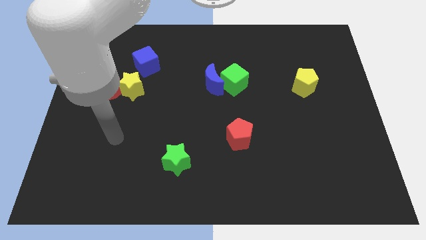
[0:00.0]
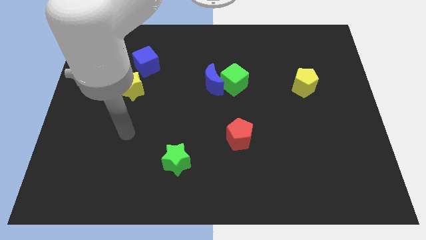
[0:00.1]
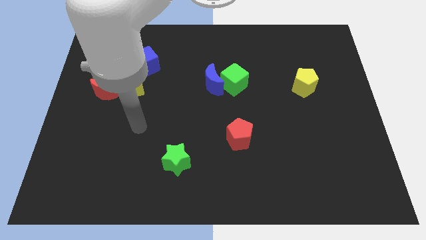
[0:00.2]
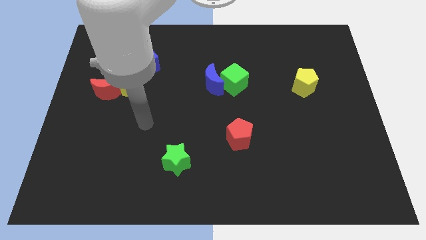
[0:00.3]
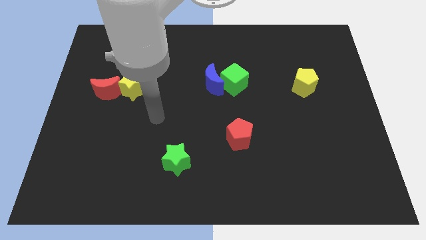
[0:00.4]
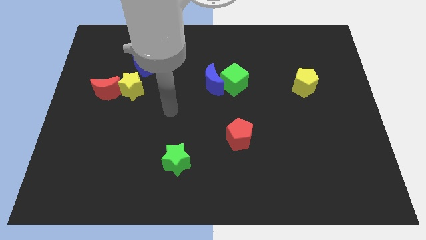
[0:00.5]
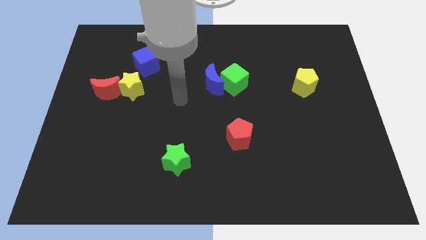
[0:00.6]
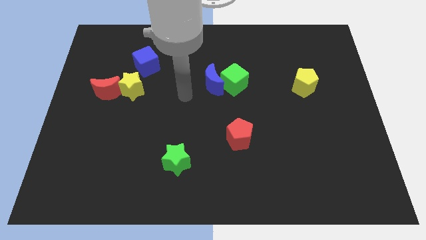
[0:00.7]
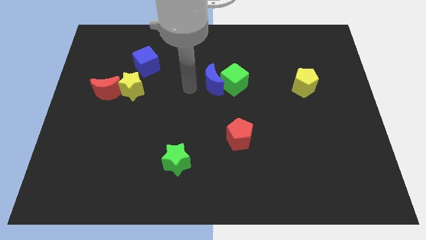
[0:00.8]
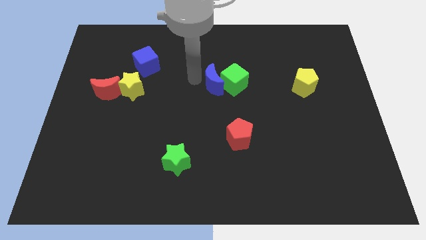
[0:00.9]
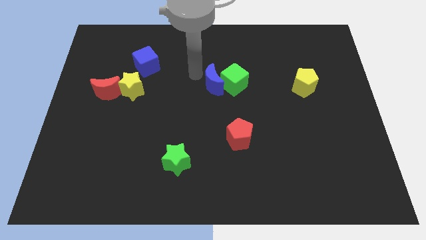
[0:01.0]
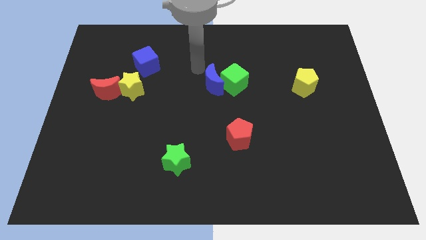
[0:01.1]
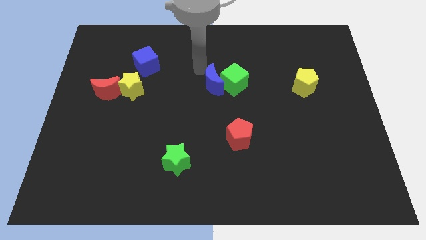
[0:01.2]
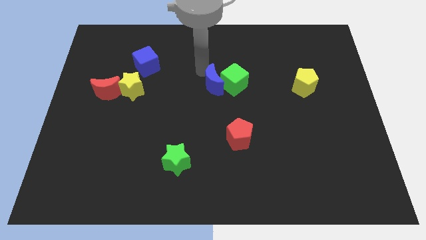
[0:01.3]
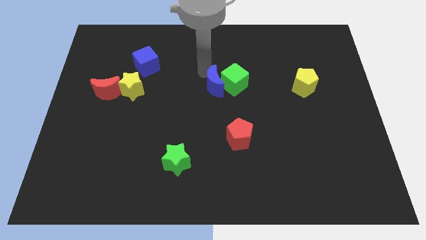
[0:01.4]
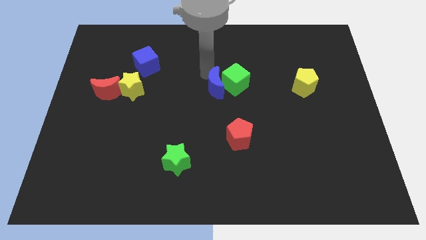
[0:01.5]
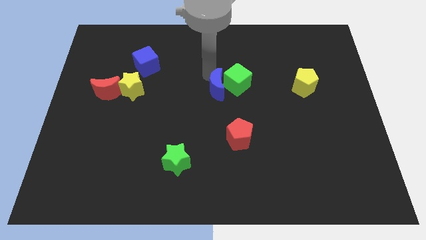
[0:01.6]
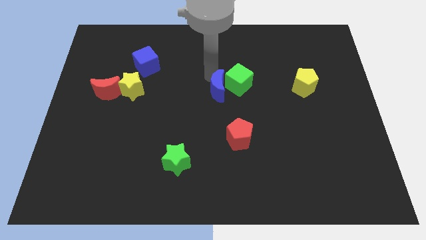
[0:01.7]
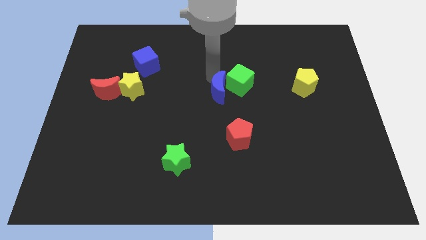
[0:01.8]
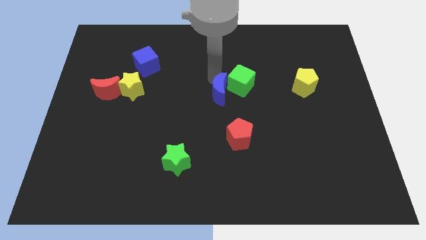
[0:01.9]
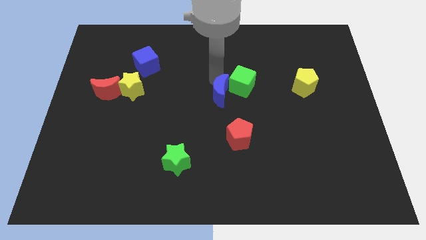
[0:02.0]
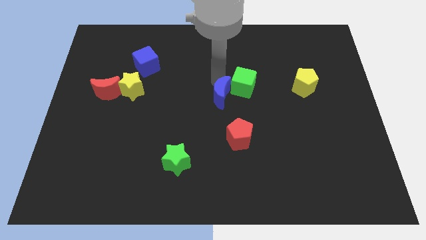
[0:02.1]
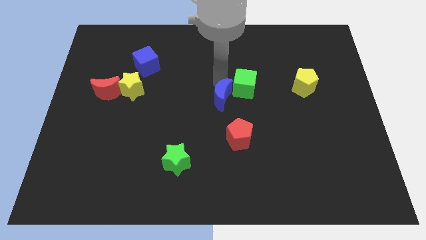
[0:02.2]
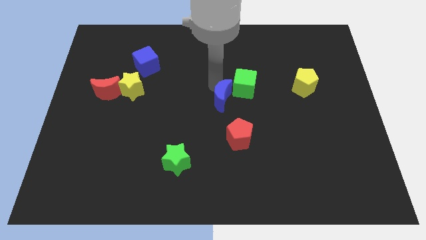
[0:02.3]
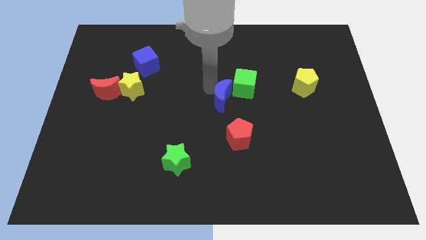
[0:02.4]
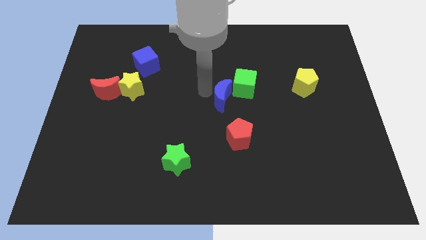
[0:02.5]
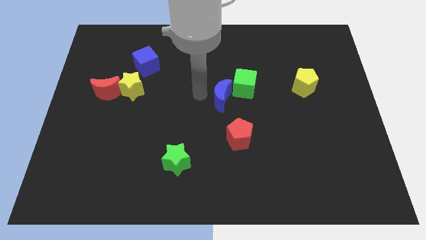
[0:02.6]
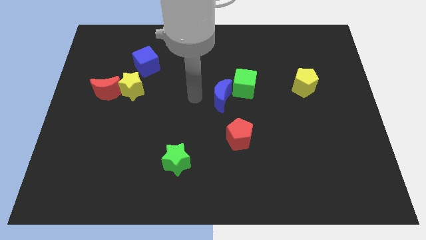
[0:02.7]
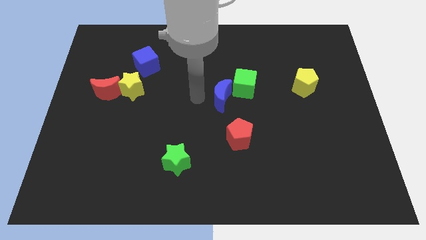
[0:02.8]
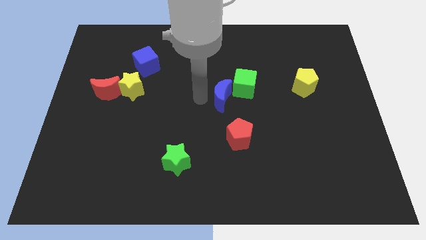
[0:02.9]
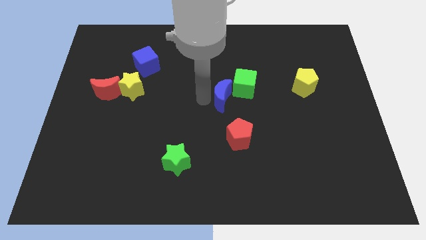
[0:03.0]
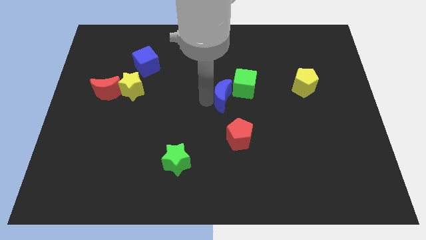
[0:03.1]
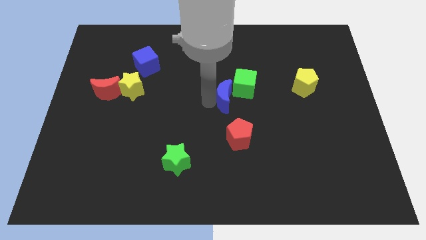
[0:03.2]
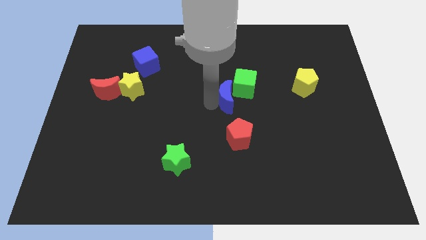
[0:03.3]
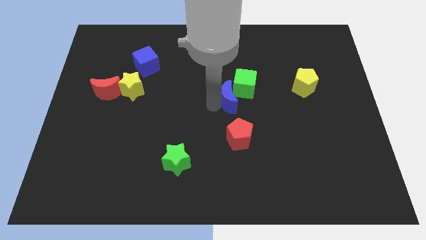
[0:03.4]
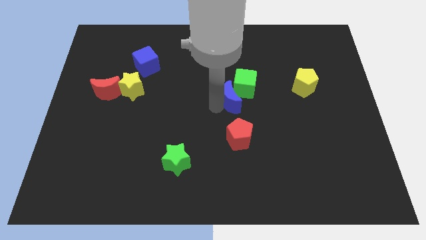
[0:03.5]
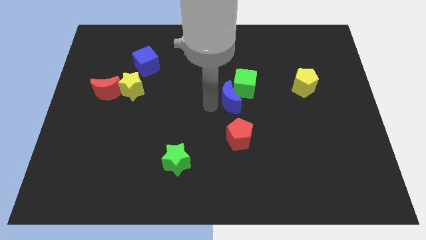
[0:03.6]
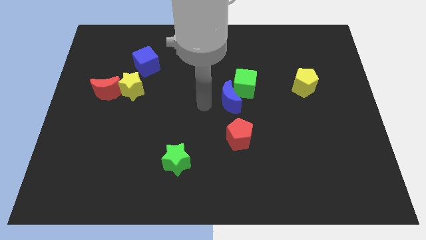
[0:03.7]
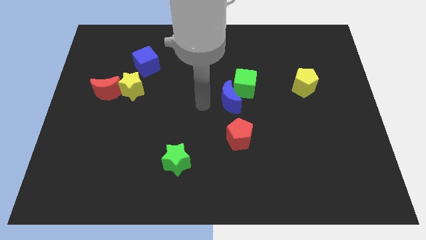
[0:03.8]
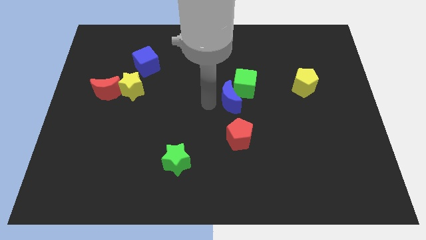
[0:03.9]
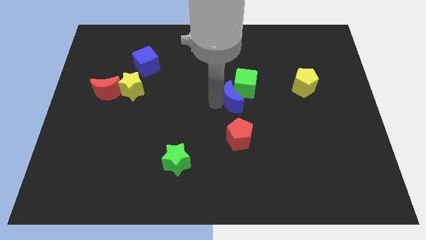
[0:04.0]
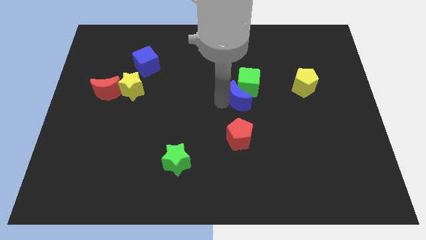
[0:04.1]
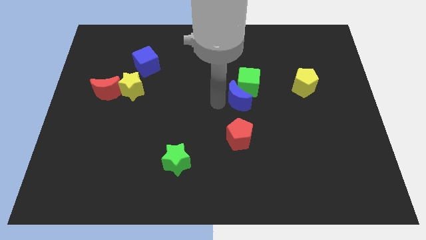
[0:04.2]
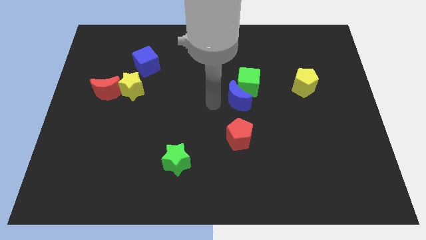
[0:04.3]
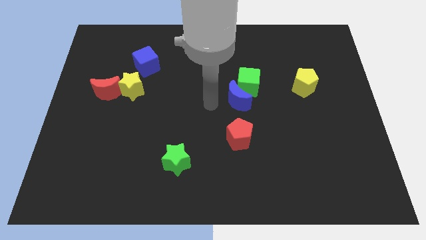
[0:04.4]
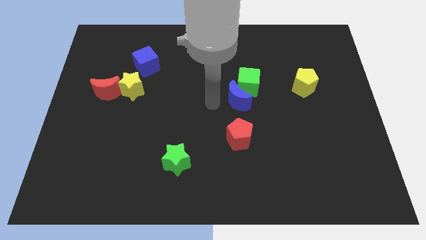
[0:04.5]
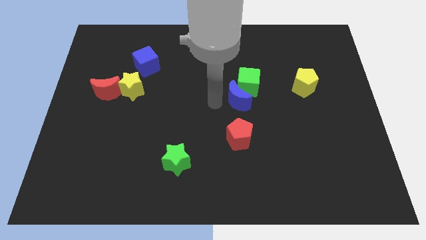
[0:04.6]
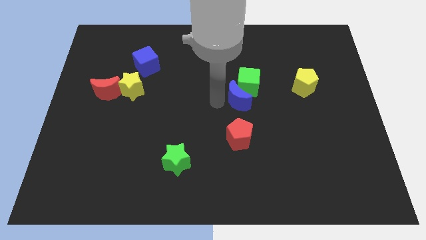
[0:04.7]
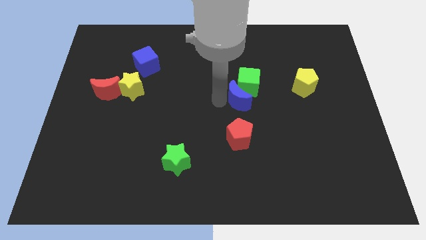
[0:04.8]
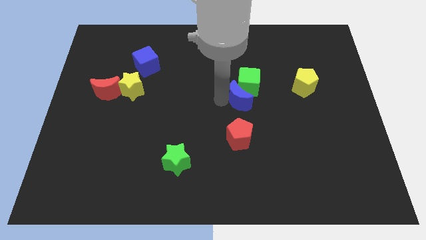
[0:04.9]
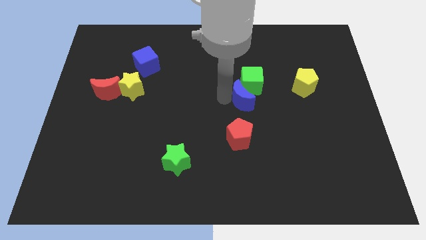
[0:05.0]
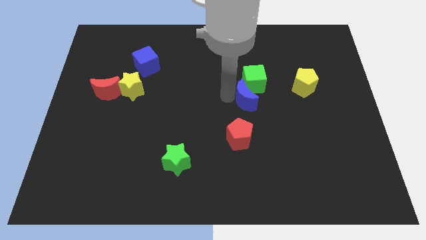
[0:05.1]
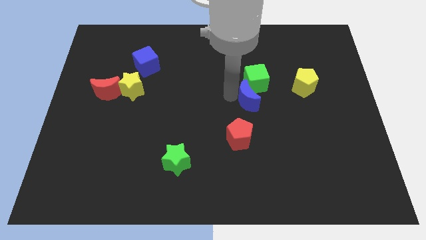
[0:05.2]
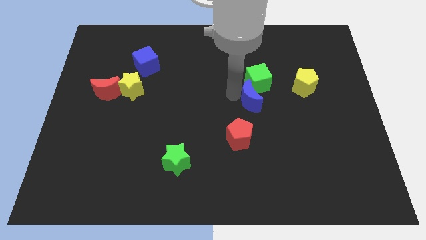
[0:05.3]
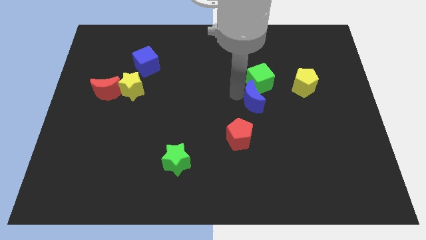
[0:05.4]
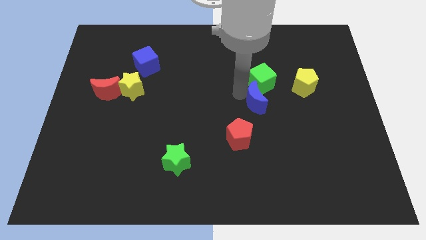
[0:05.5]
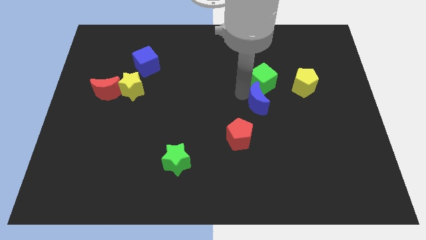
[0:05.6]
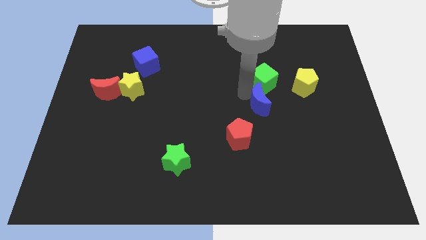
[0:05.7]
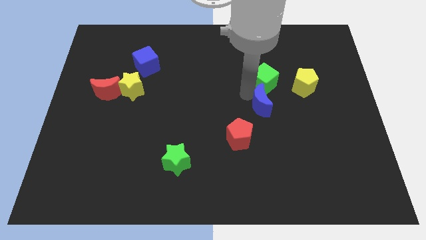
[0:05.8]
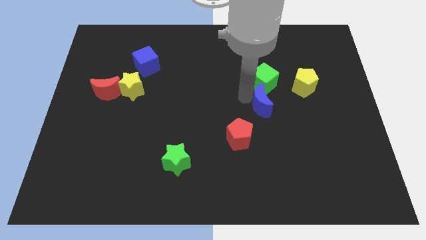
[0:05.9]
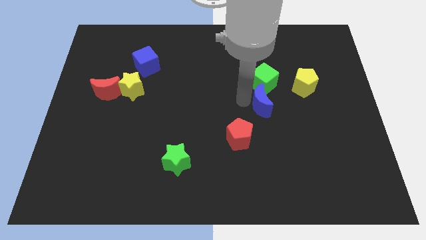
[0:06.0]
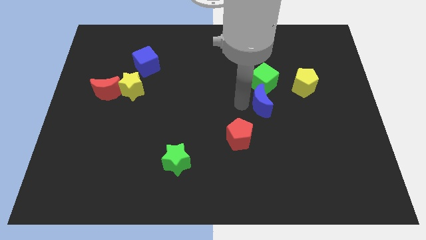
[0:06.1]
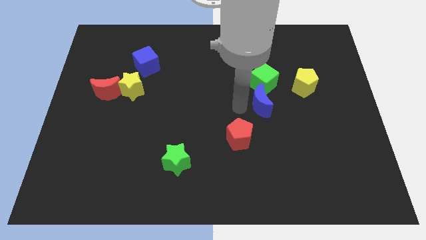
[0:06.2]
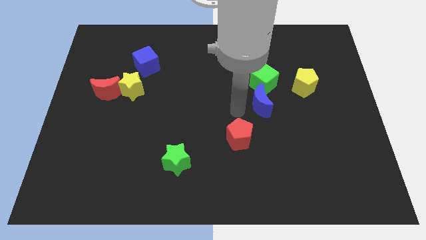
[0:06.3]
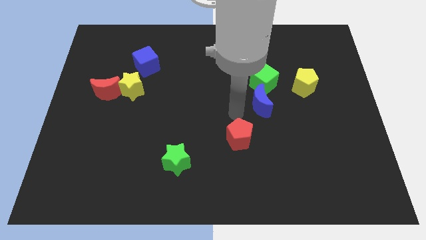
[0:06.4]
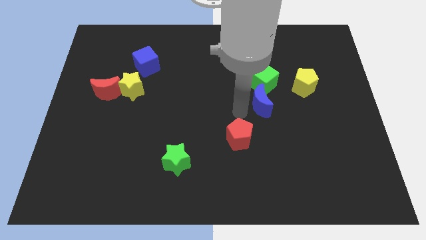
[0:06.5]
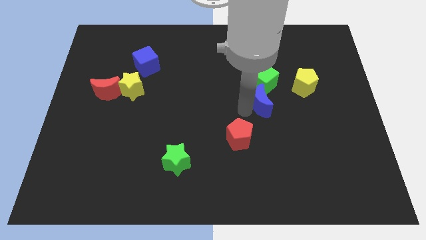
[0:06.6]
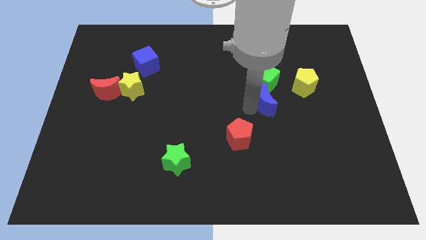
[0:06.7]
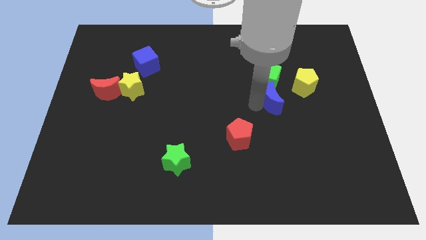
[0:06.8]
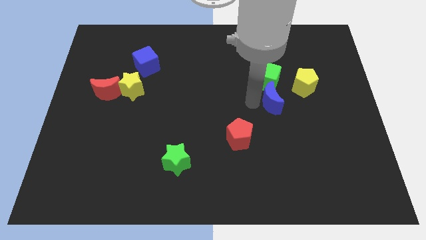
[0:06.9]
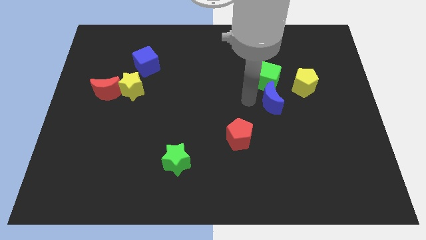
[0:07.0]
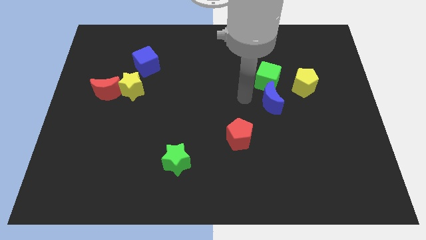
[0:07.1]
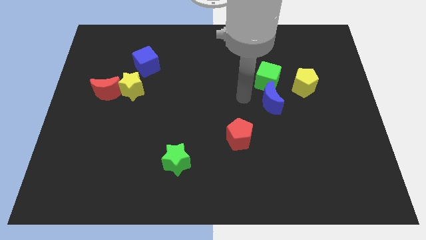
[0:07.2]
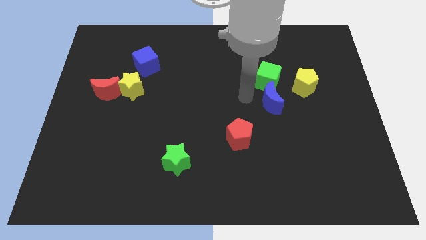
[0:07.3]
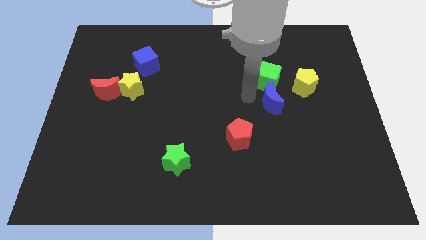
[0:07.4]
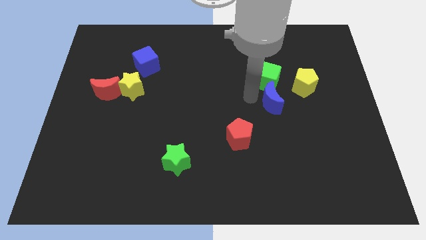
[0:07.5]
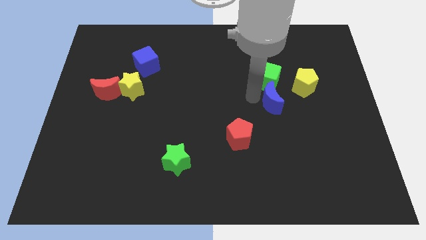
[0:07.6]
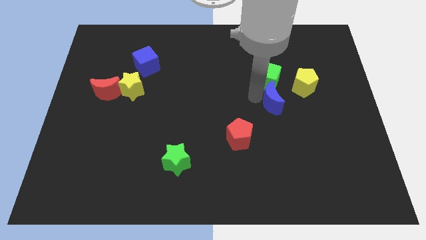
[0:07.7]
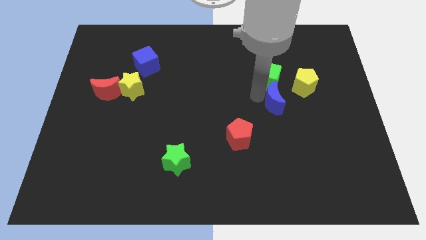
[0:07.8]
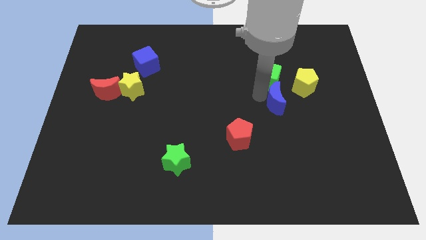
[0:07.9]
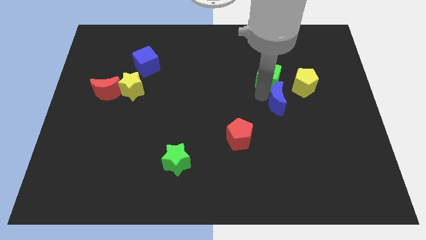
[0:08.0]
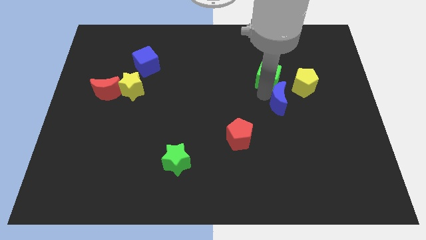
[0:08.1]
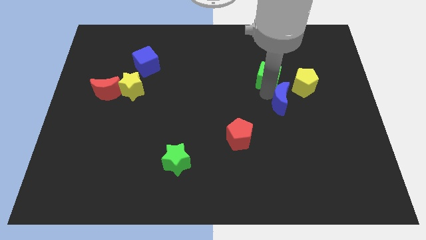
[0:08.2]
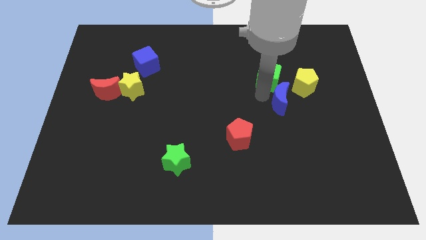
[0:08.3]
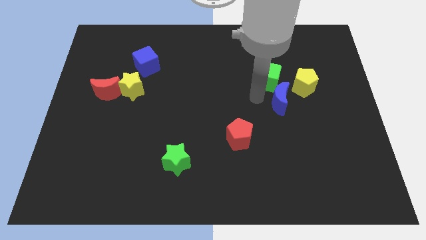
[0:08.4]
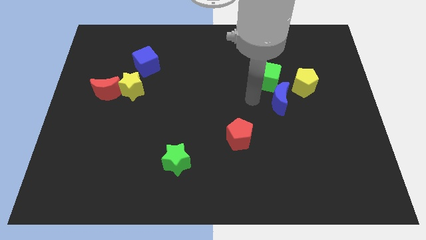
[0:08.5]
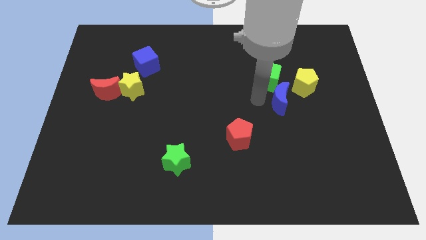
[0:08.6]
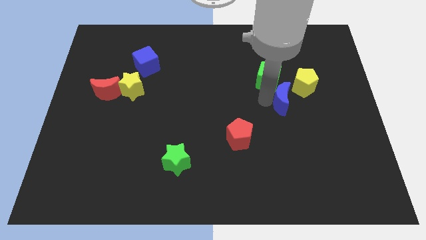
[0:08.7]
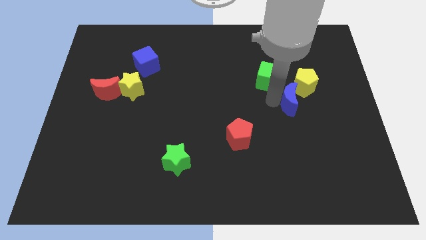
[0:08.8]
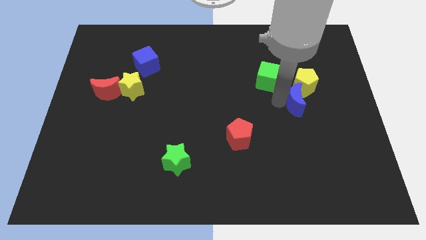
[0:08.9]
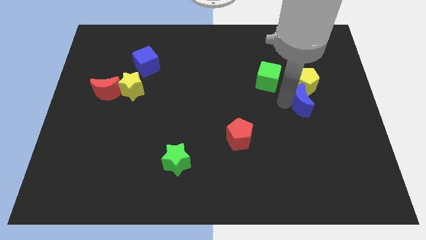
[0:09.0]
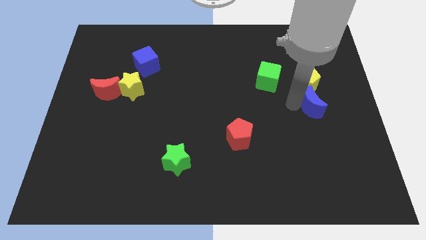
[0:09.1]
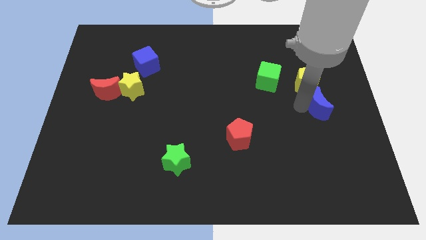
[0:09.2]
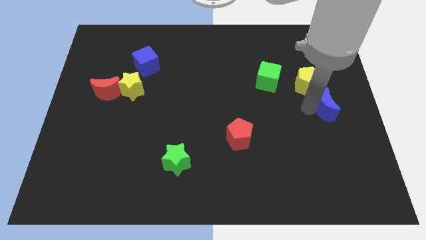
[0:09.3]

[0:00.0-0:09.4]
slide the blue moon to the right side
